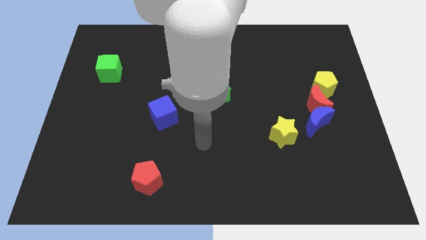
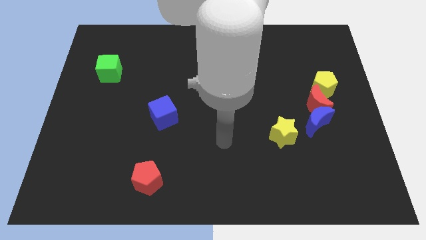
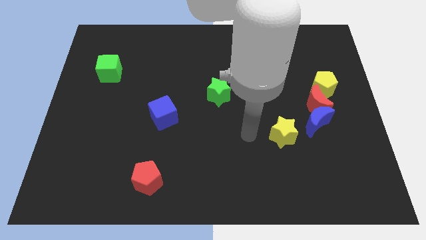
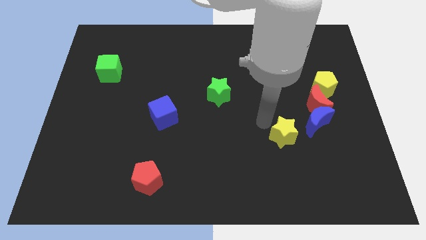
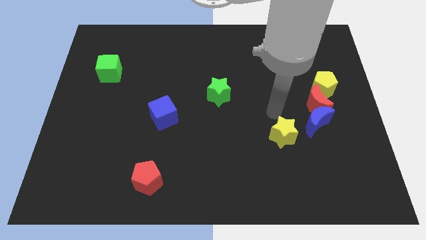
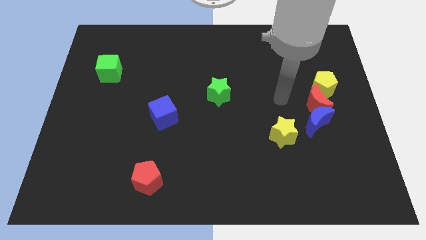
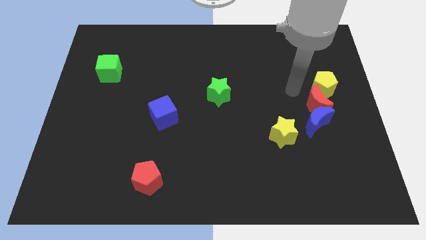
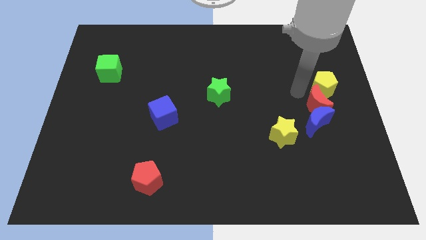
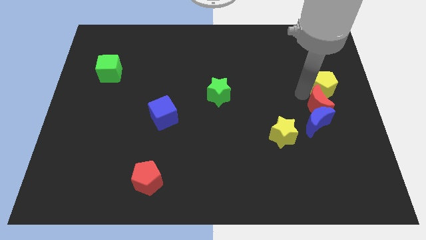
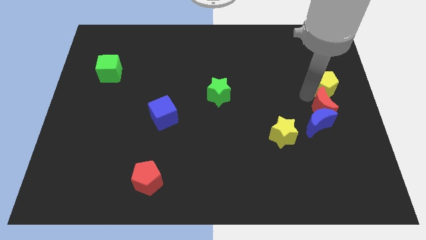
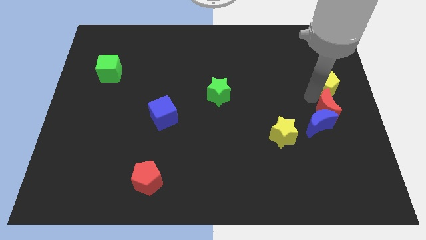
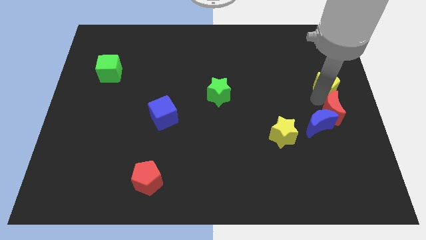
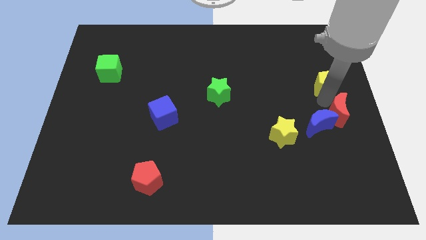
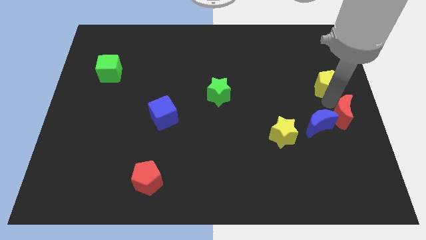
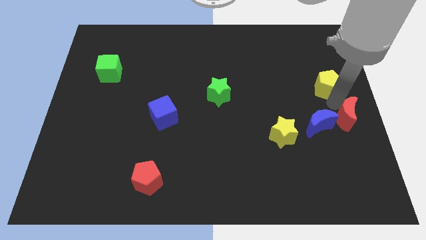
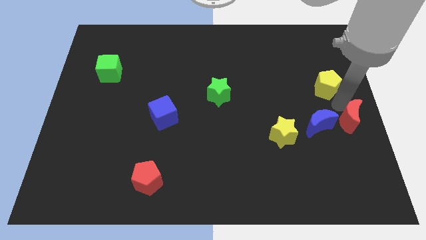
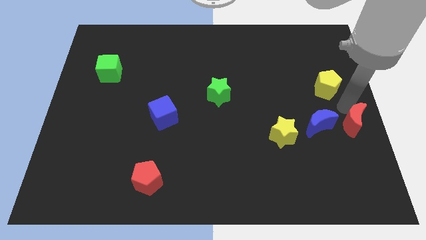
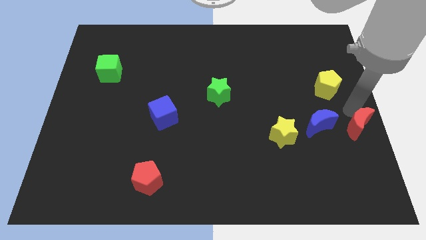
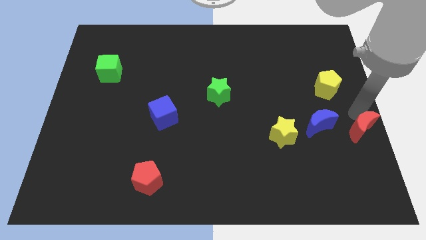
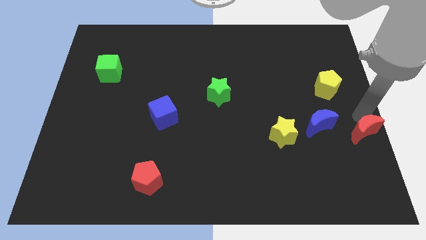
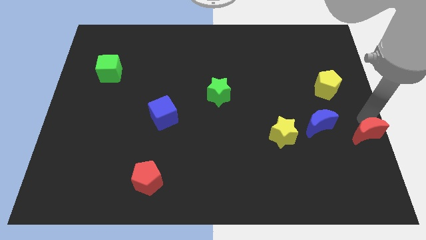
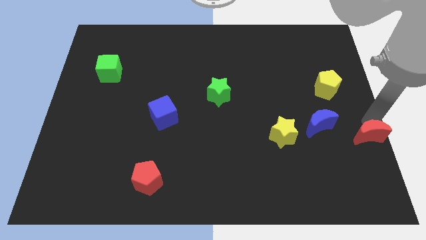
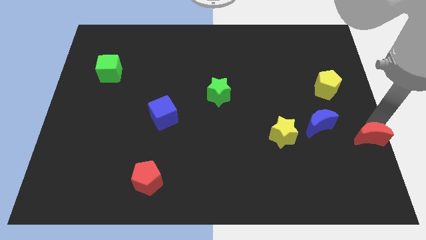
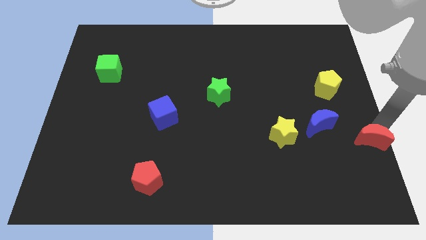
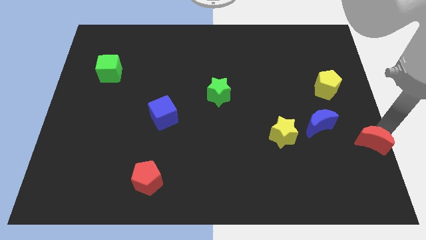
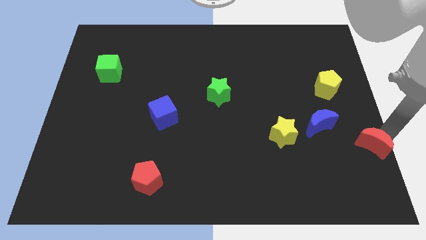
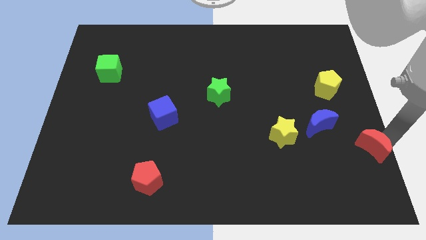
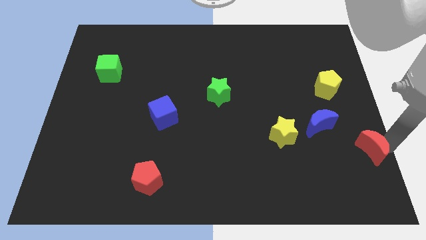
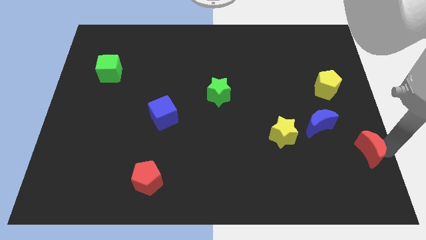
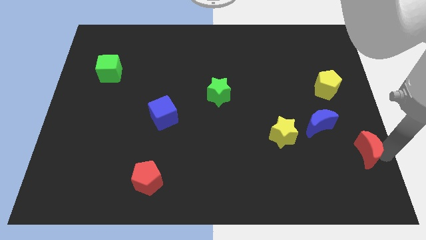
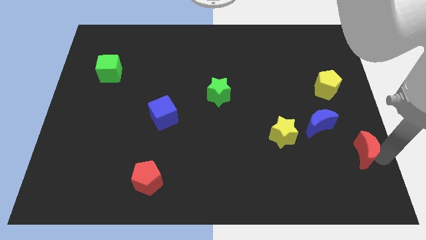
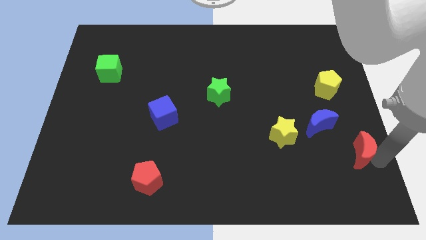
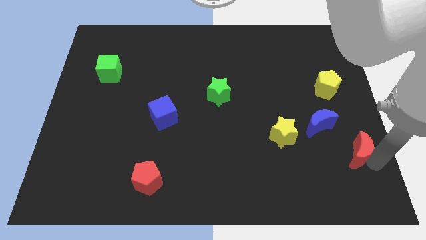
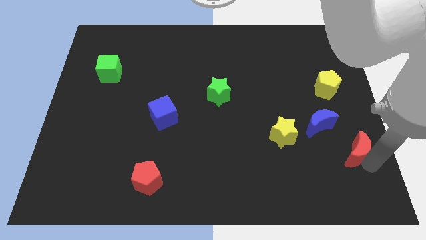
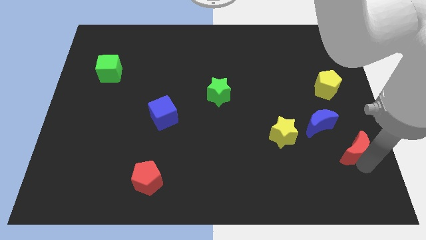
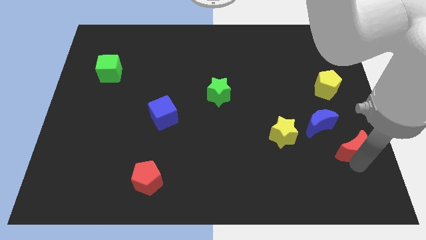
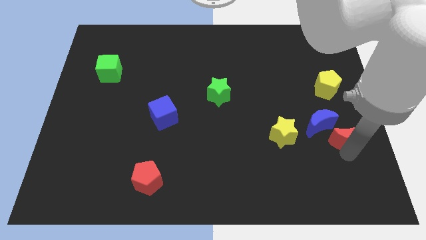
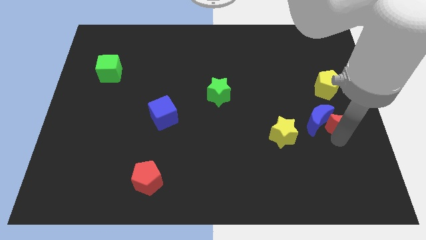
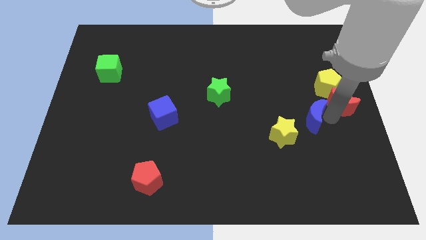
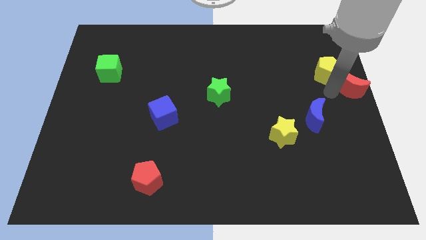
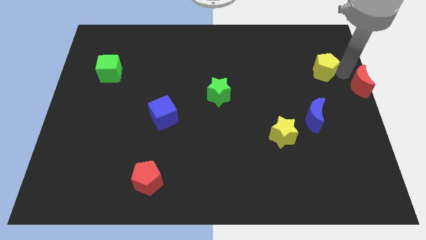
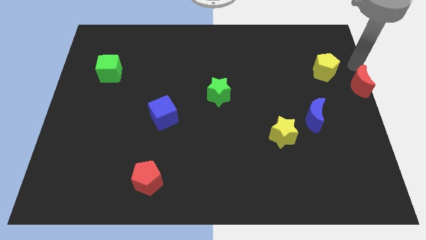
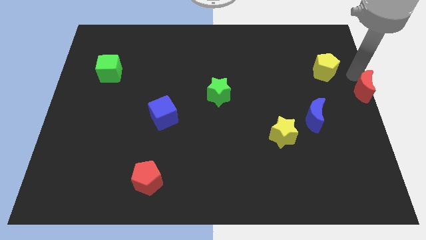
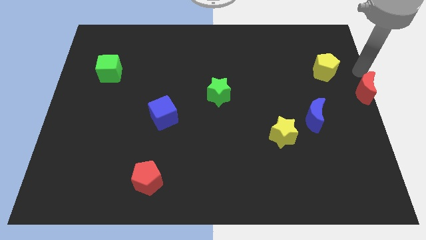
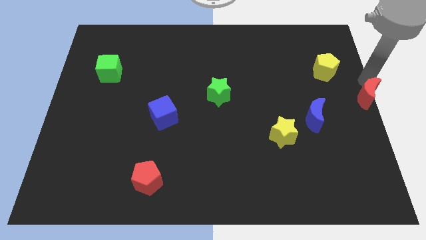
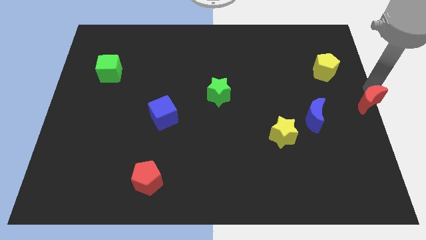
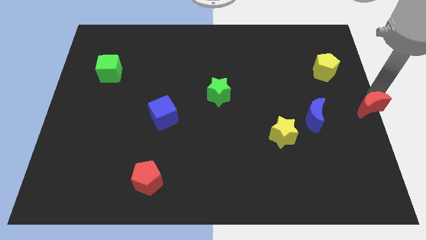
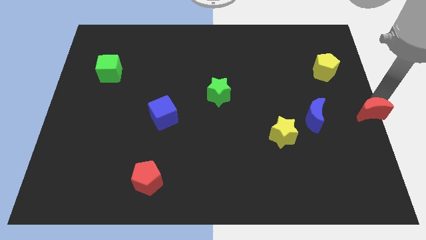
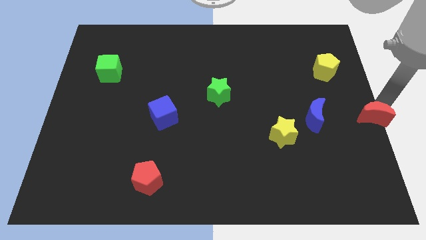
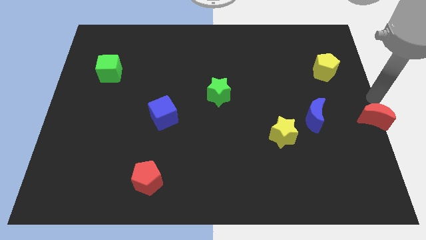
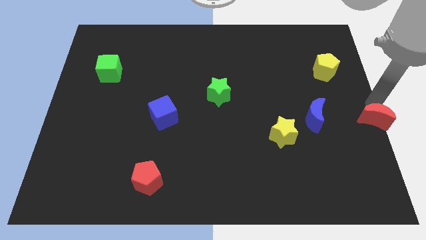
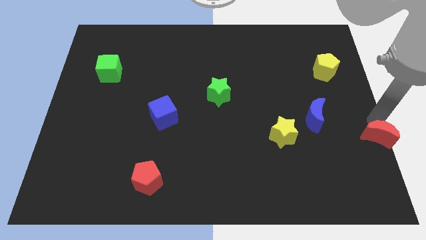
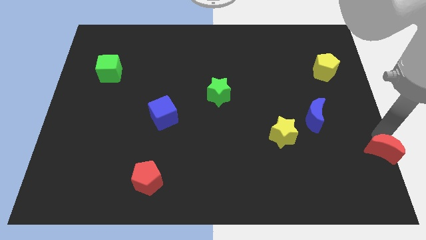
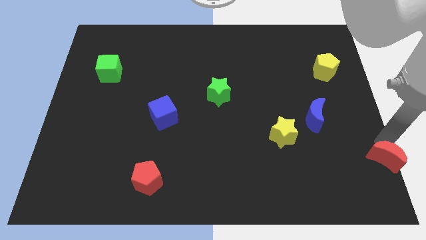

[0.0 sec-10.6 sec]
move the red moon to the bottom right

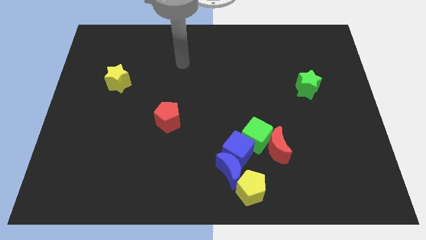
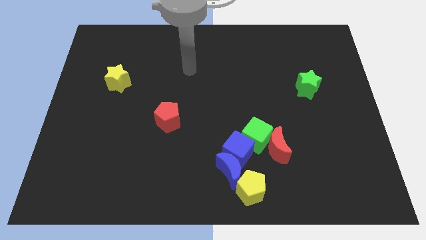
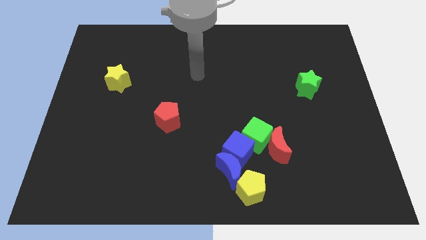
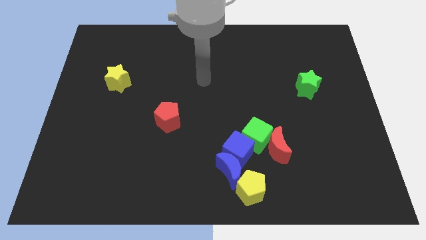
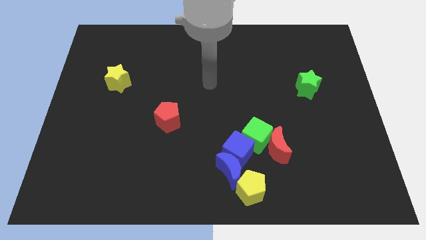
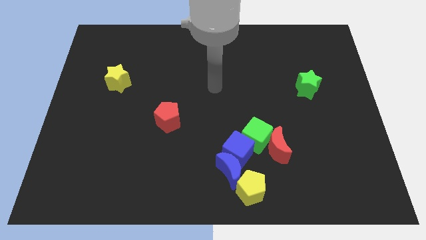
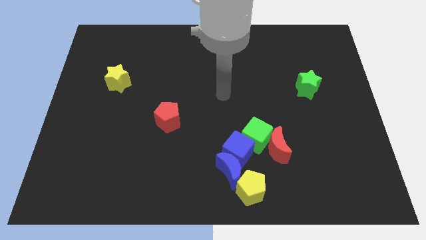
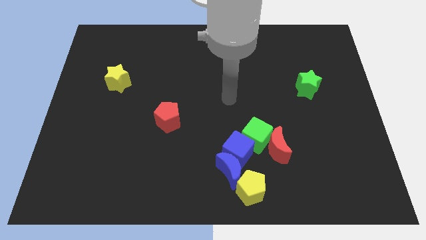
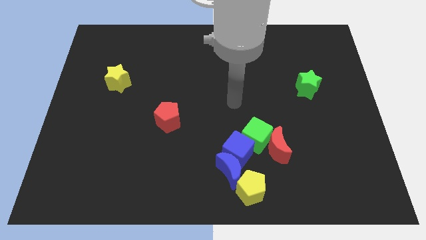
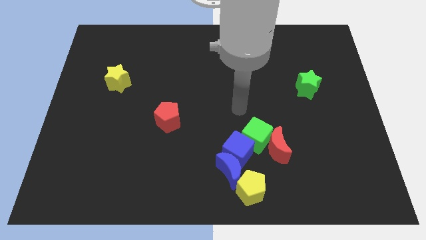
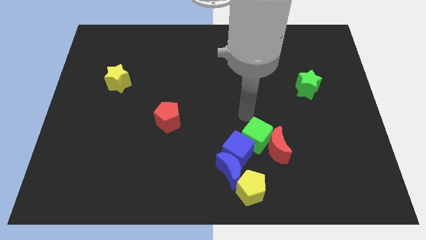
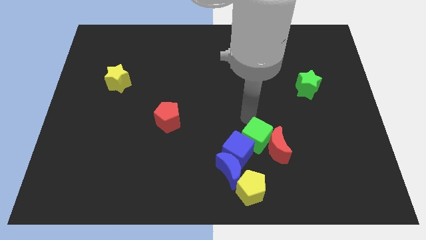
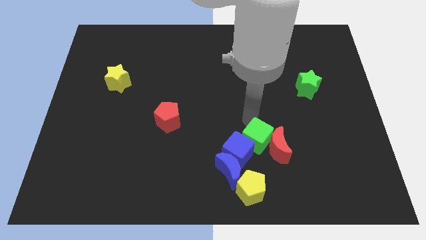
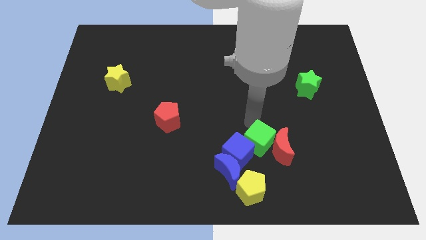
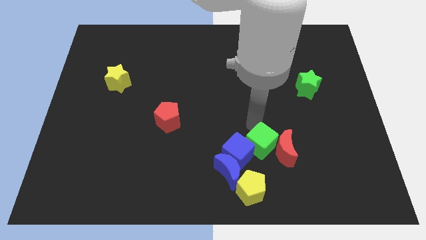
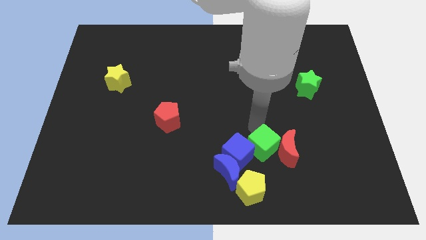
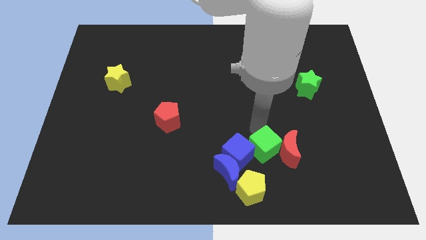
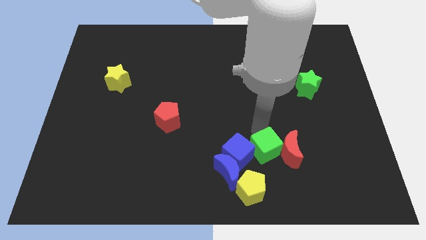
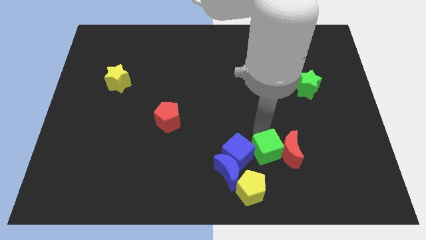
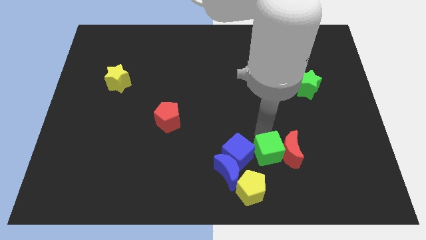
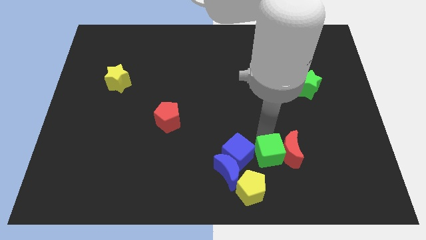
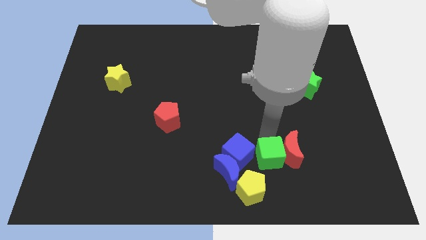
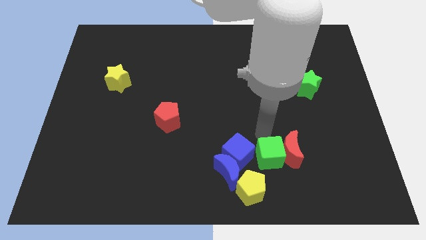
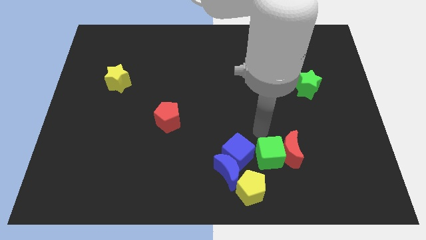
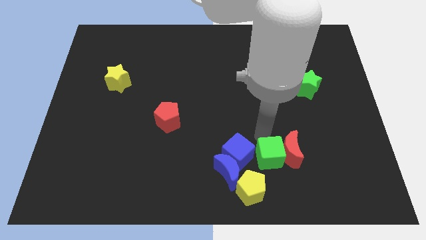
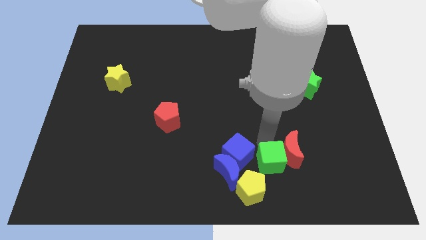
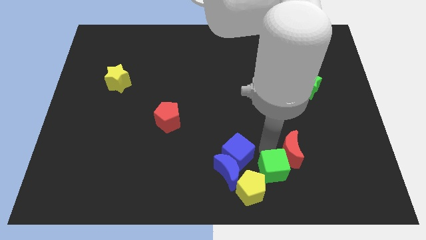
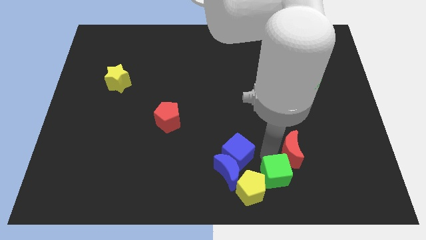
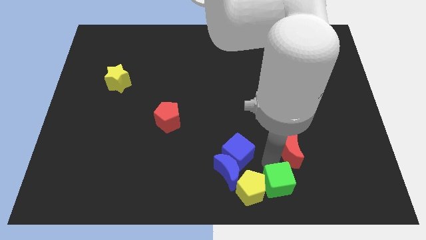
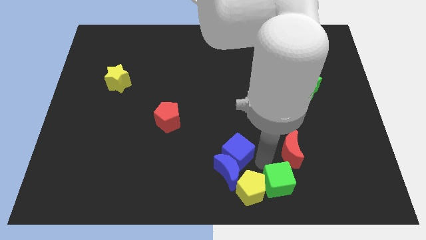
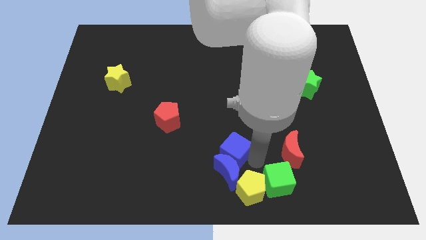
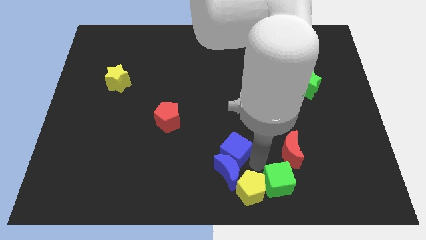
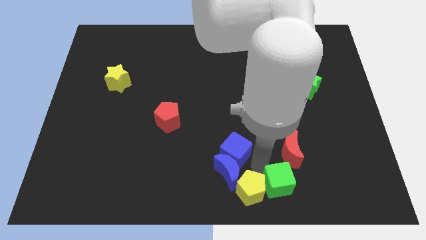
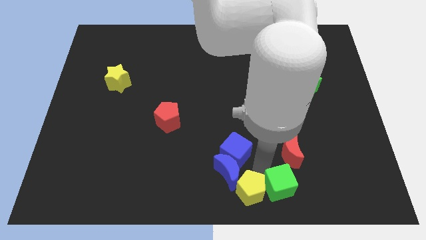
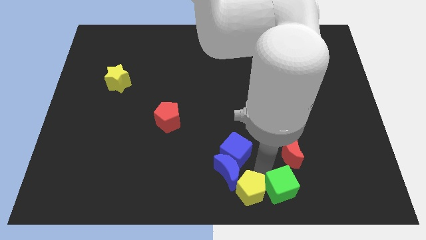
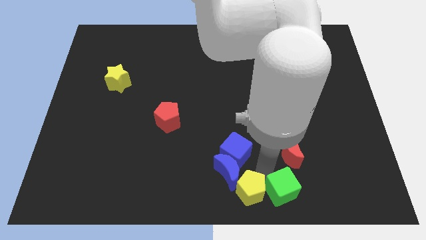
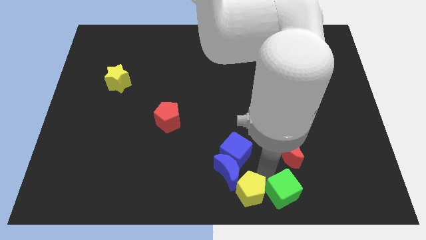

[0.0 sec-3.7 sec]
put the green cube to the bottom side
